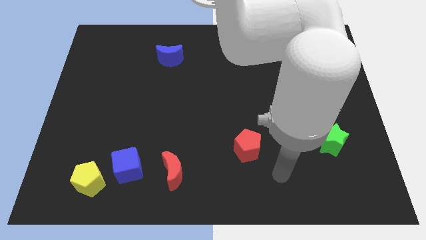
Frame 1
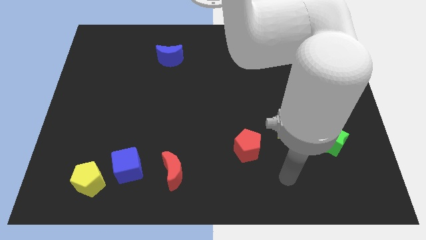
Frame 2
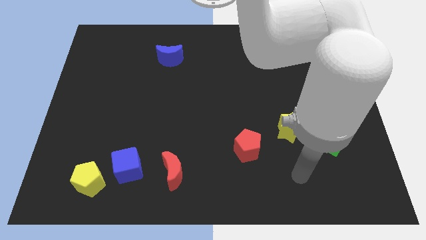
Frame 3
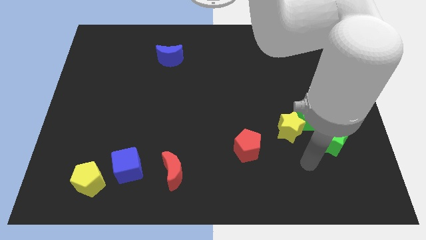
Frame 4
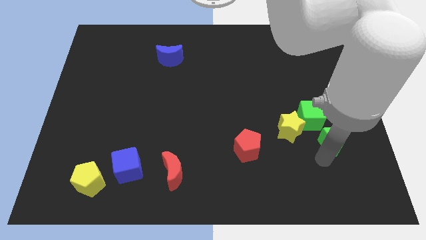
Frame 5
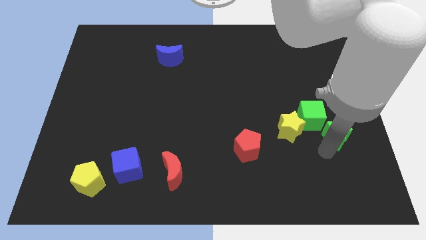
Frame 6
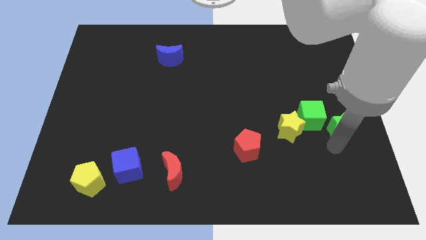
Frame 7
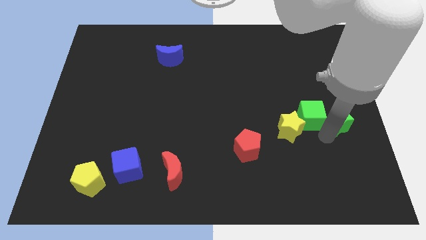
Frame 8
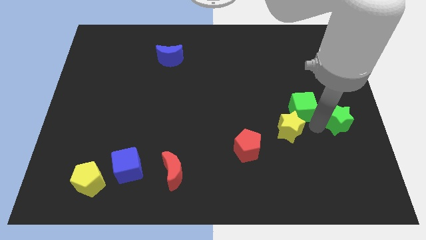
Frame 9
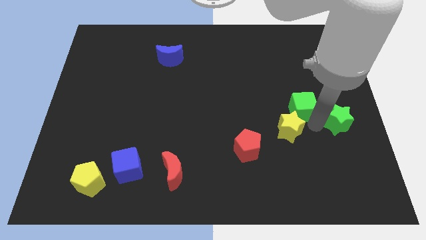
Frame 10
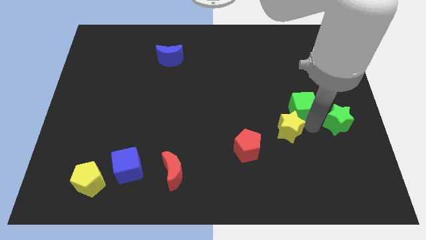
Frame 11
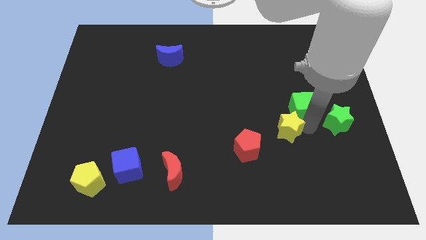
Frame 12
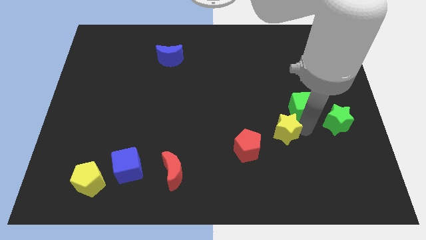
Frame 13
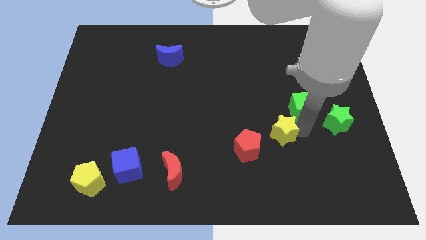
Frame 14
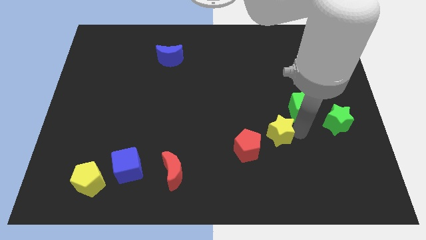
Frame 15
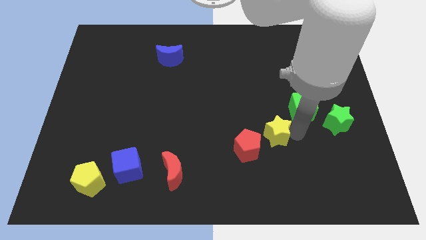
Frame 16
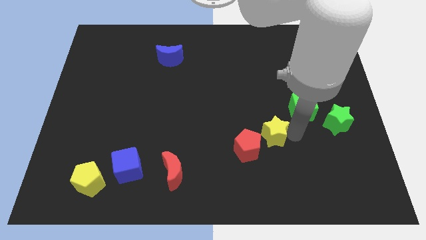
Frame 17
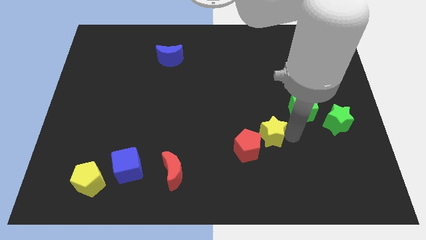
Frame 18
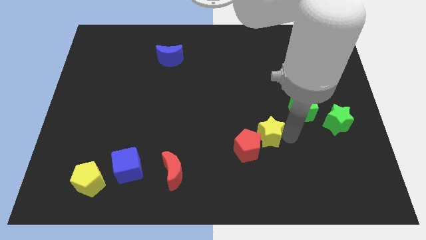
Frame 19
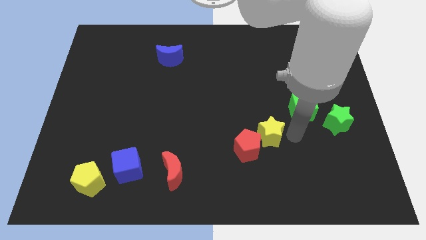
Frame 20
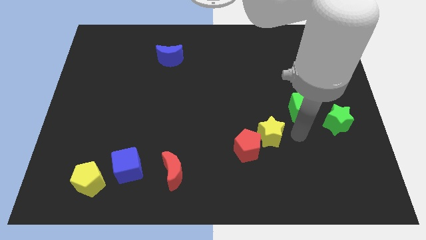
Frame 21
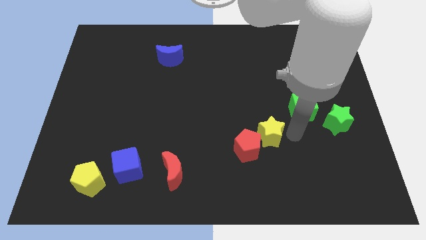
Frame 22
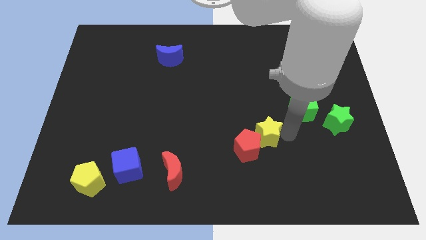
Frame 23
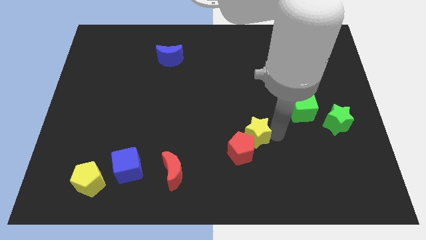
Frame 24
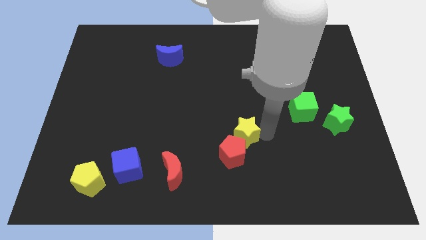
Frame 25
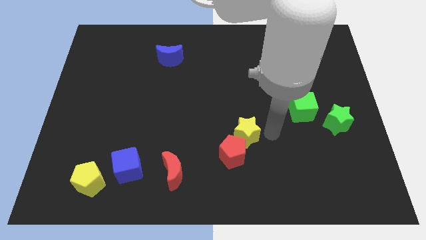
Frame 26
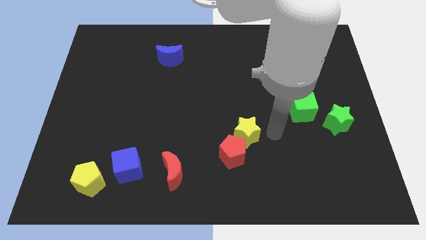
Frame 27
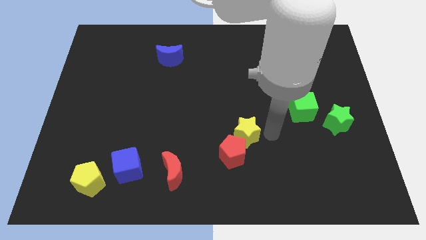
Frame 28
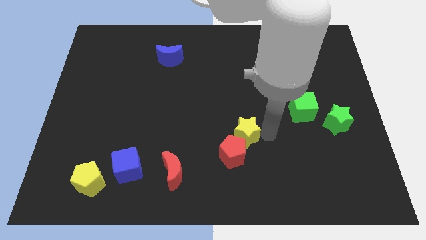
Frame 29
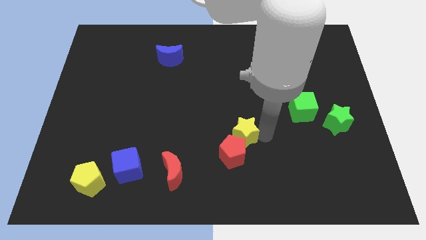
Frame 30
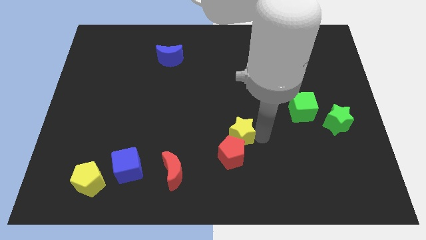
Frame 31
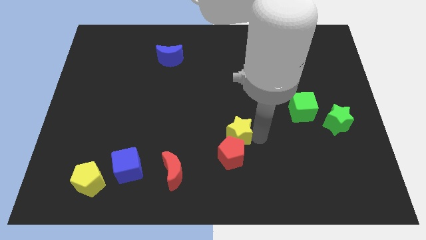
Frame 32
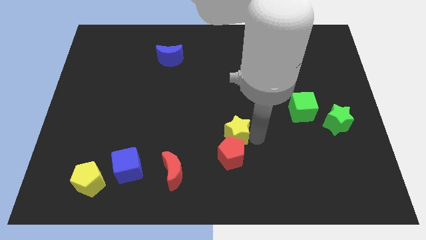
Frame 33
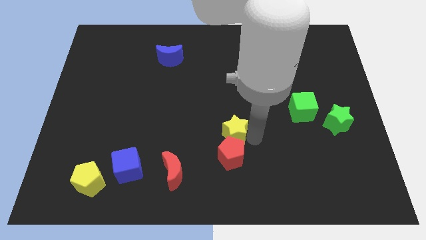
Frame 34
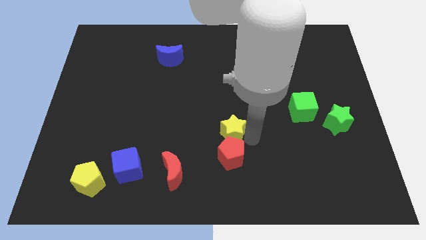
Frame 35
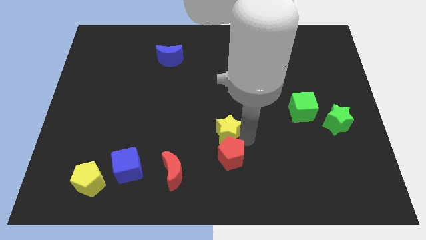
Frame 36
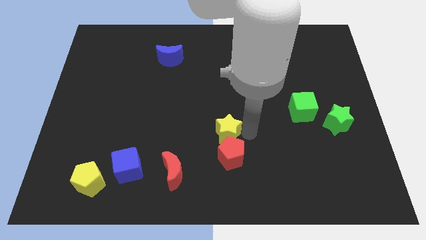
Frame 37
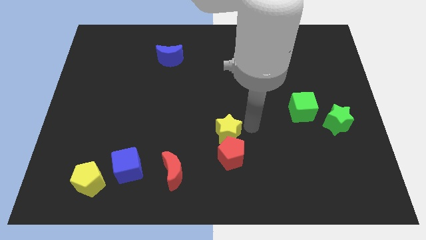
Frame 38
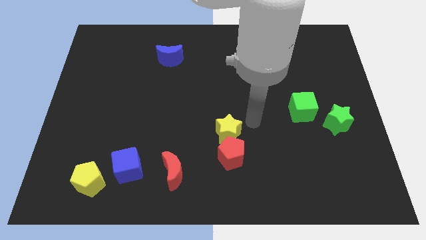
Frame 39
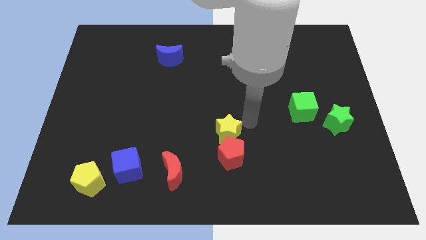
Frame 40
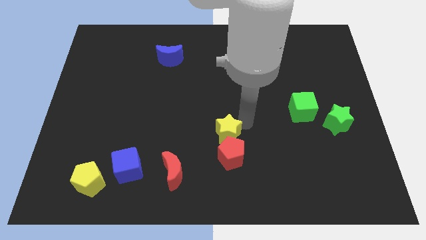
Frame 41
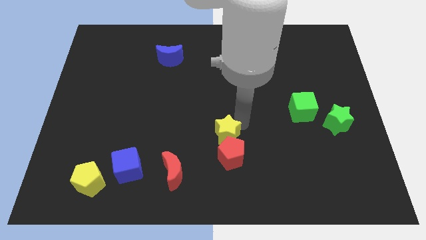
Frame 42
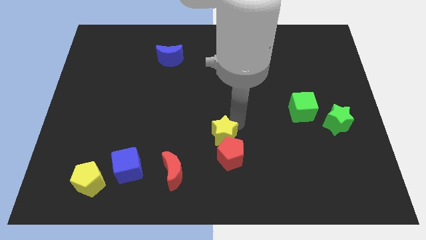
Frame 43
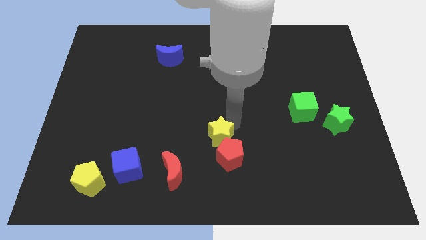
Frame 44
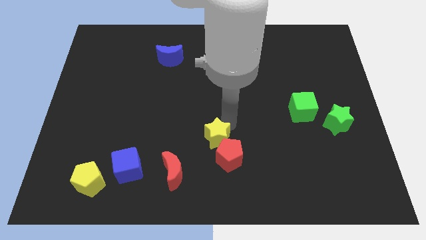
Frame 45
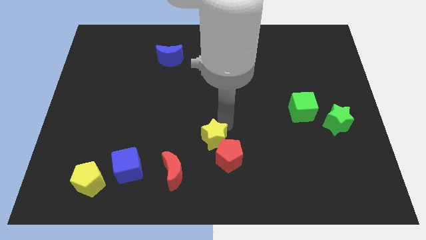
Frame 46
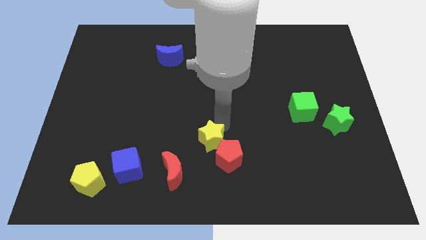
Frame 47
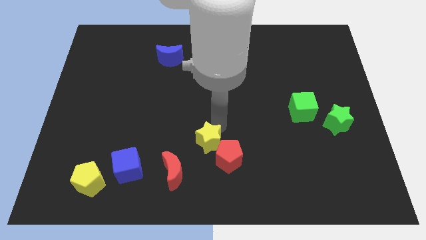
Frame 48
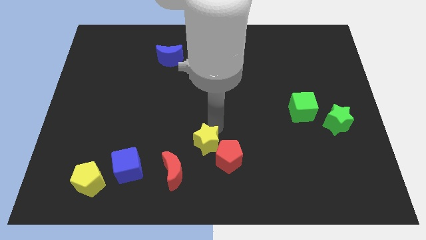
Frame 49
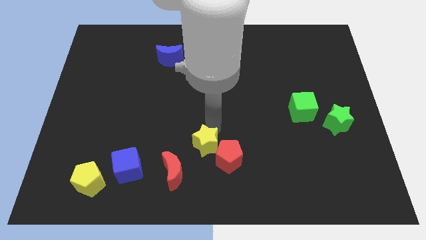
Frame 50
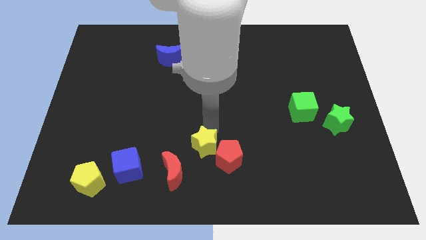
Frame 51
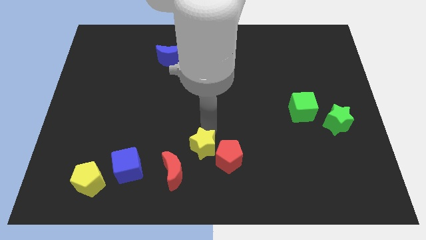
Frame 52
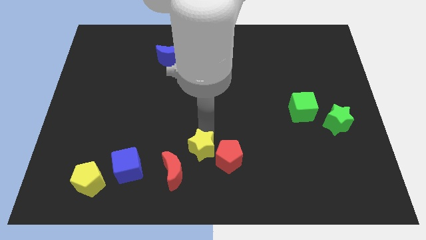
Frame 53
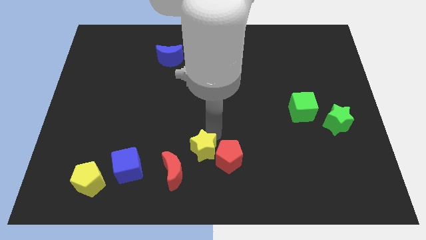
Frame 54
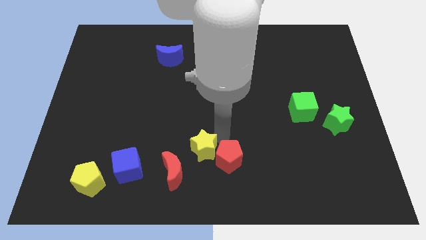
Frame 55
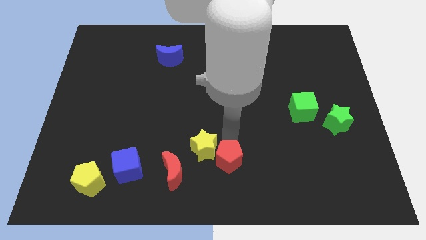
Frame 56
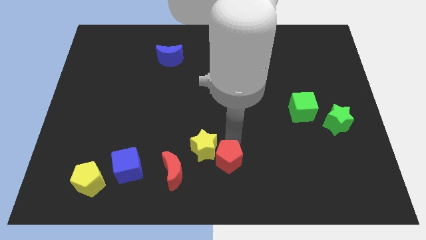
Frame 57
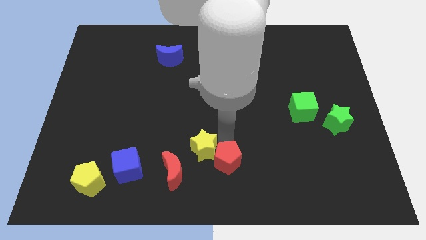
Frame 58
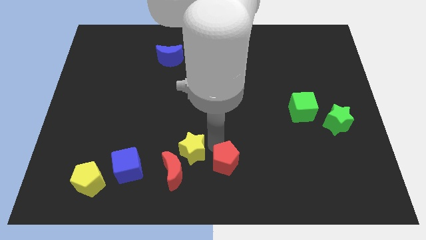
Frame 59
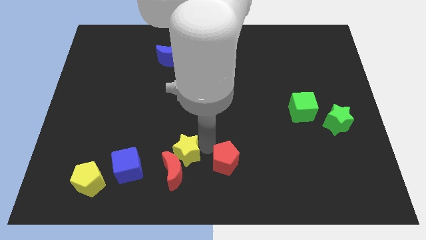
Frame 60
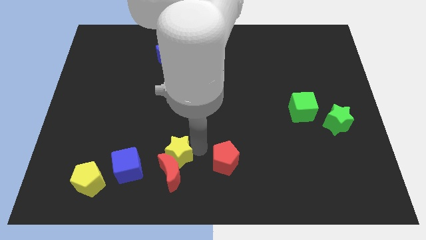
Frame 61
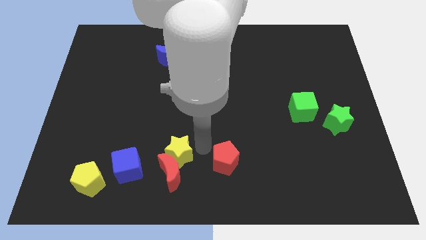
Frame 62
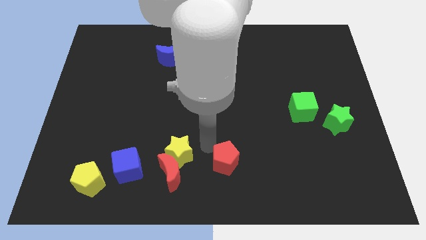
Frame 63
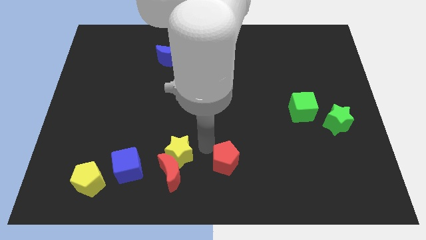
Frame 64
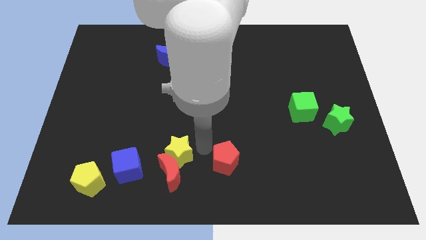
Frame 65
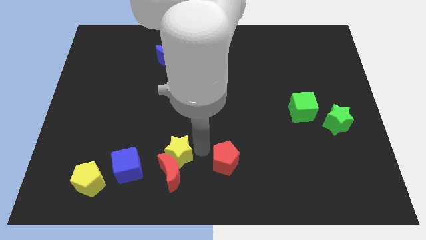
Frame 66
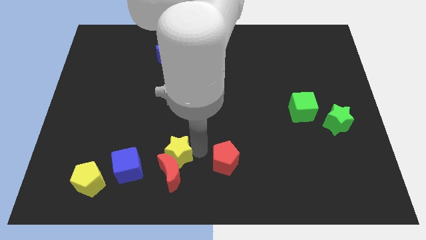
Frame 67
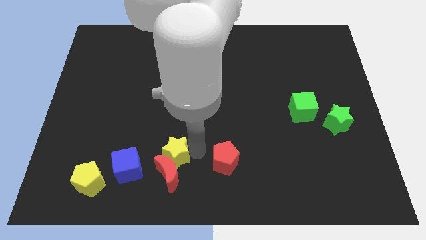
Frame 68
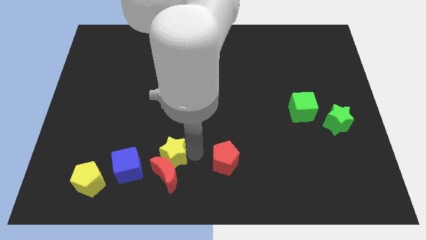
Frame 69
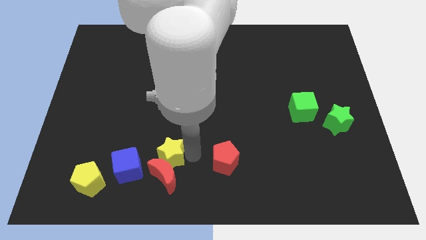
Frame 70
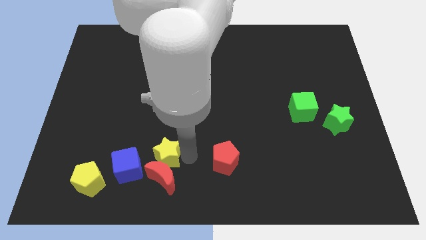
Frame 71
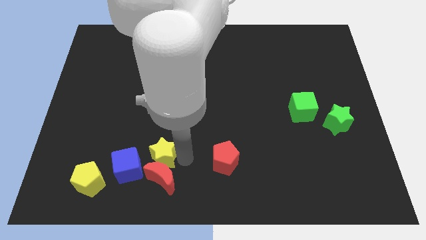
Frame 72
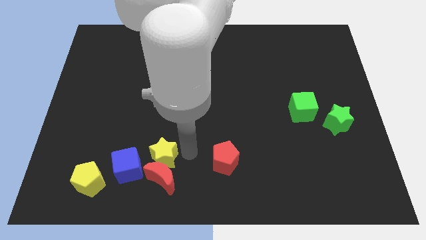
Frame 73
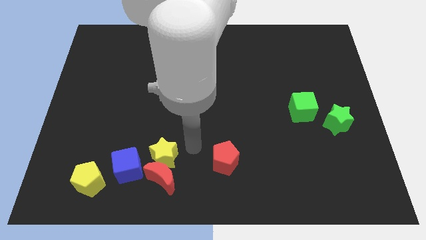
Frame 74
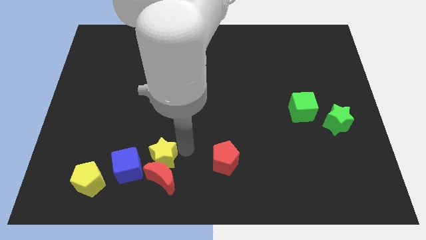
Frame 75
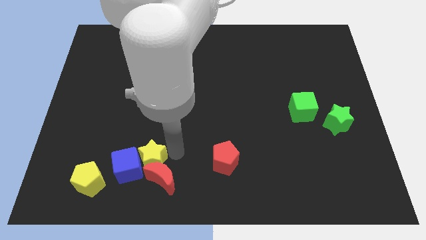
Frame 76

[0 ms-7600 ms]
slide the yellow star to the blue cube
